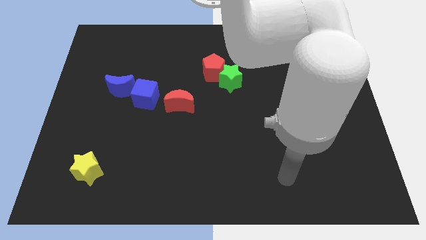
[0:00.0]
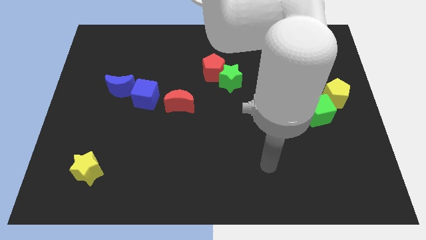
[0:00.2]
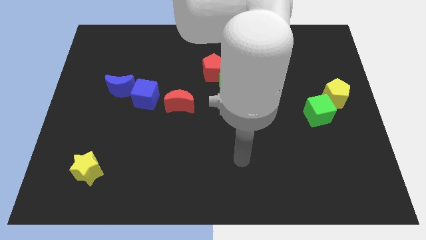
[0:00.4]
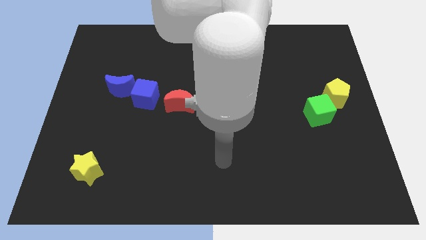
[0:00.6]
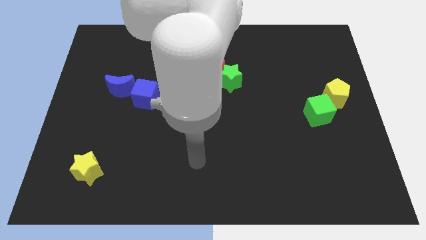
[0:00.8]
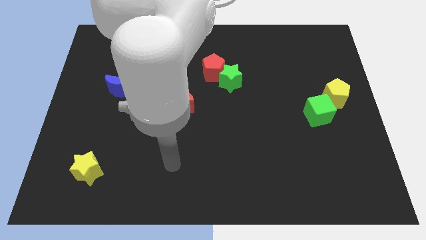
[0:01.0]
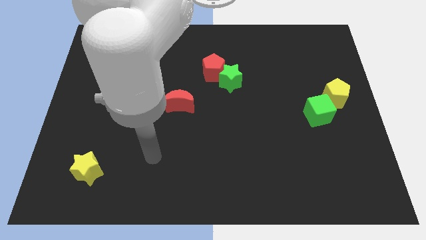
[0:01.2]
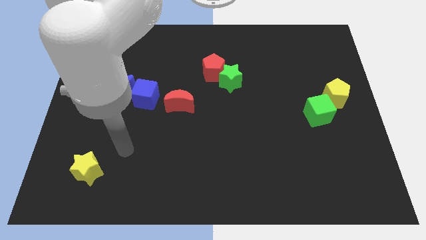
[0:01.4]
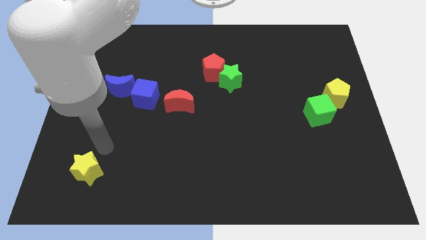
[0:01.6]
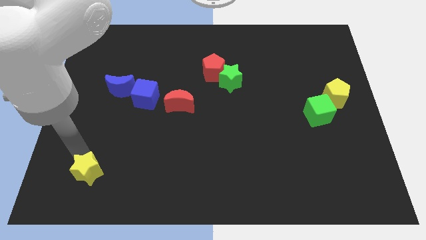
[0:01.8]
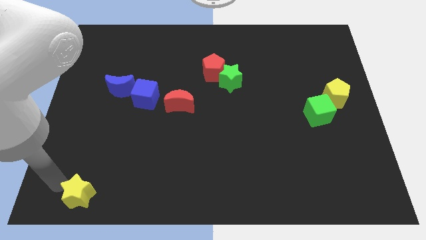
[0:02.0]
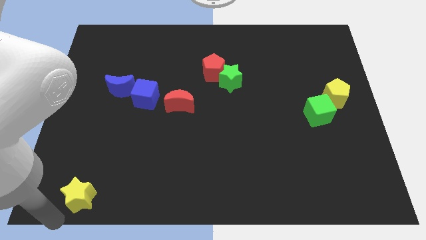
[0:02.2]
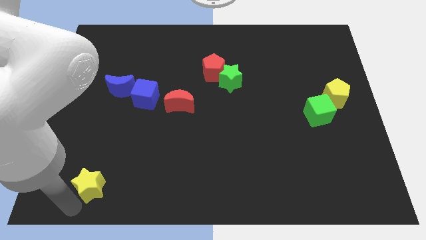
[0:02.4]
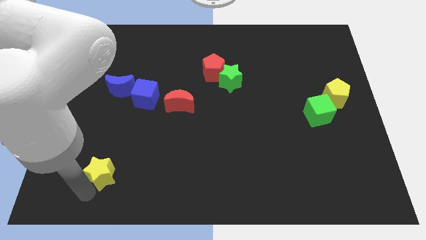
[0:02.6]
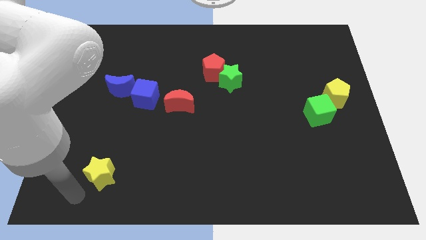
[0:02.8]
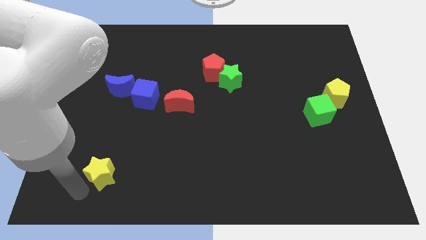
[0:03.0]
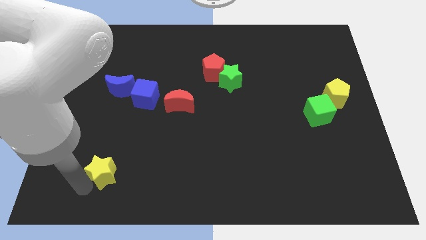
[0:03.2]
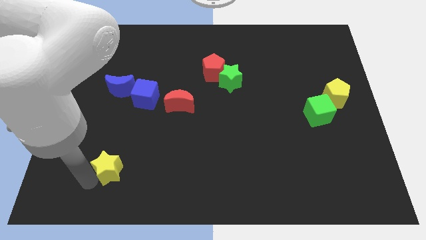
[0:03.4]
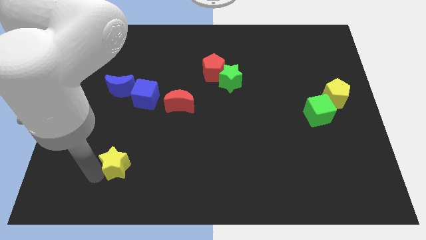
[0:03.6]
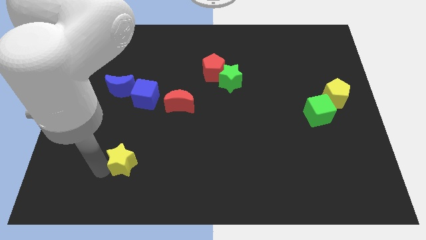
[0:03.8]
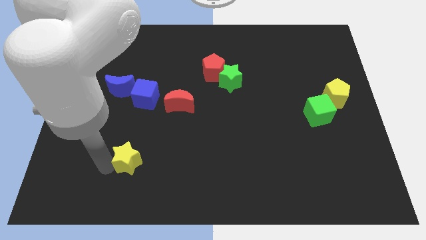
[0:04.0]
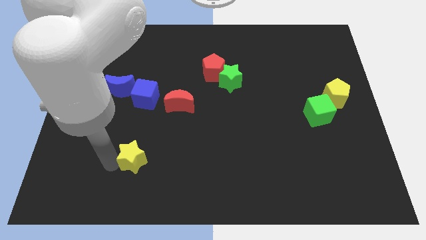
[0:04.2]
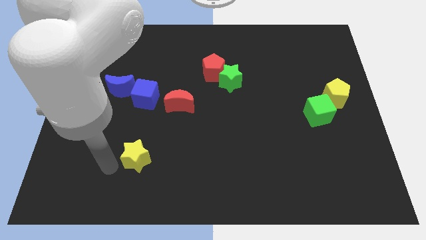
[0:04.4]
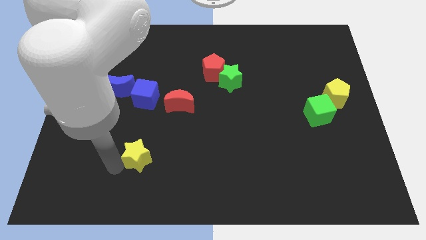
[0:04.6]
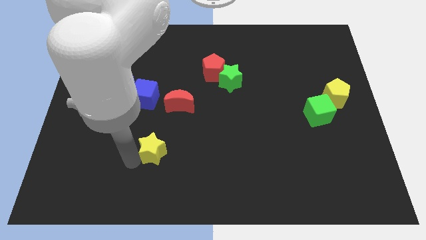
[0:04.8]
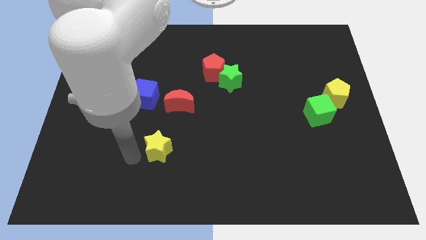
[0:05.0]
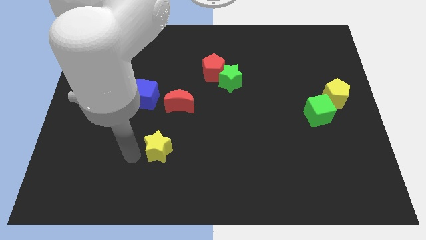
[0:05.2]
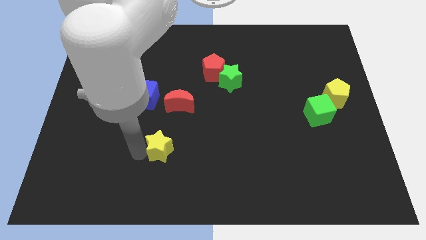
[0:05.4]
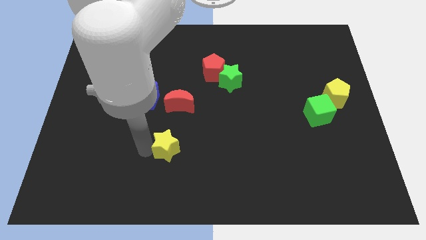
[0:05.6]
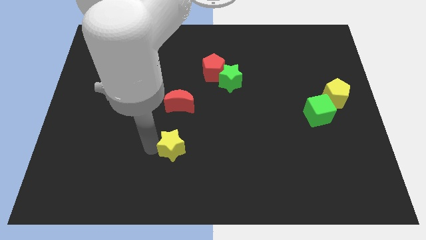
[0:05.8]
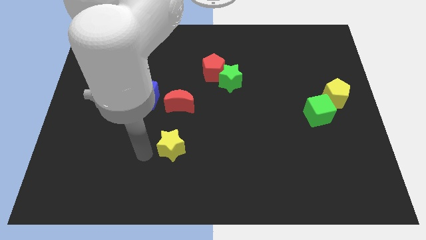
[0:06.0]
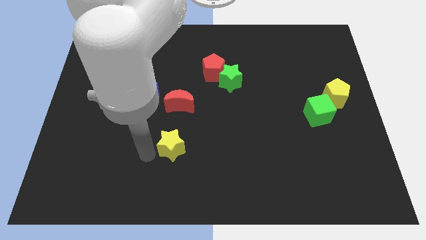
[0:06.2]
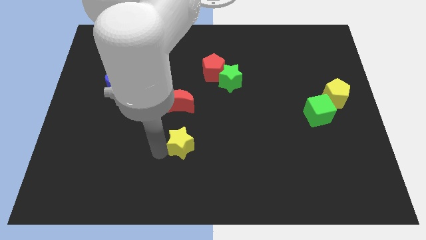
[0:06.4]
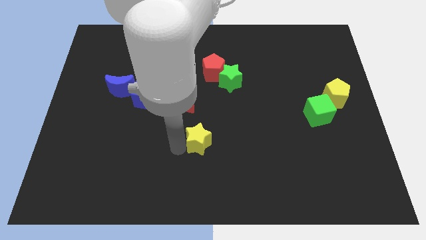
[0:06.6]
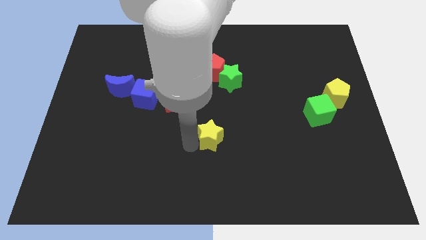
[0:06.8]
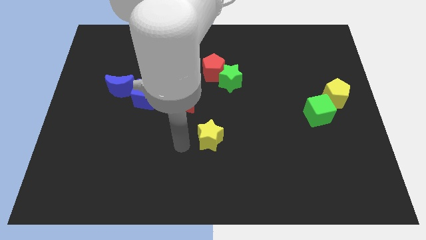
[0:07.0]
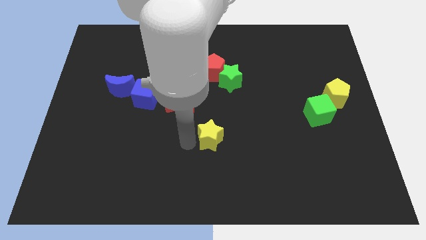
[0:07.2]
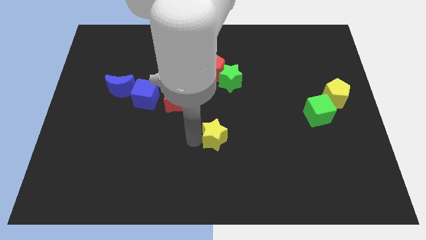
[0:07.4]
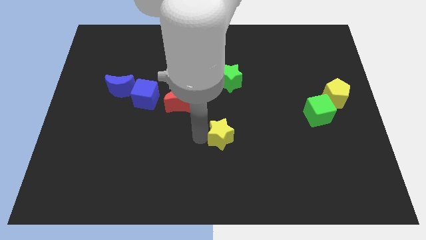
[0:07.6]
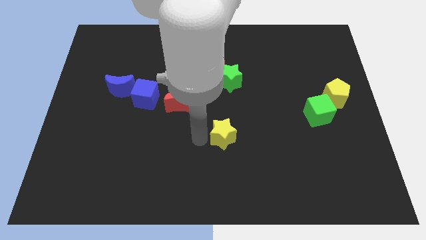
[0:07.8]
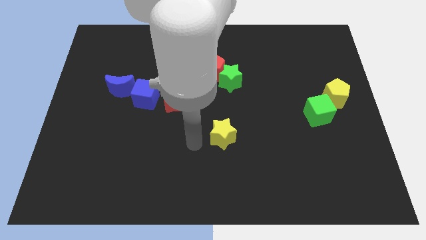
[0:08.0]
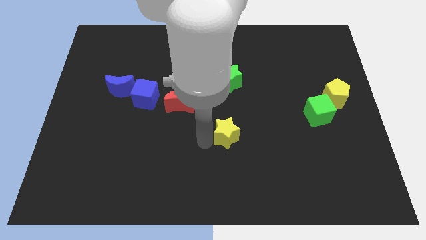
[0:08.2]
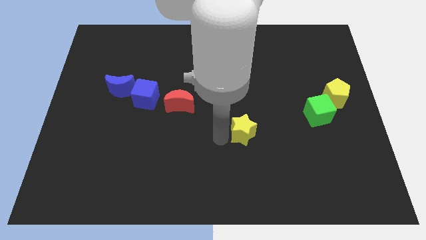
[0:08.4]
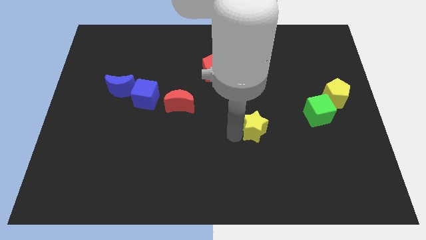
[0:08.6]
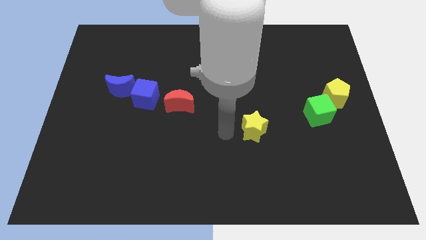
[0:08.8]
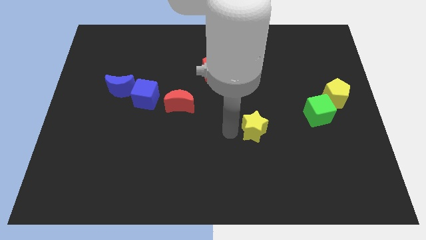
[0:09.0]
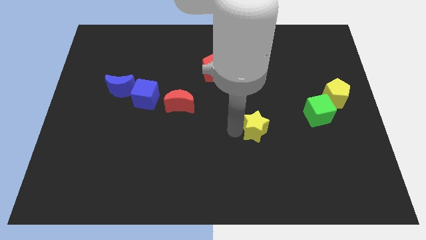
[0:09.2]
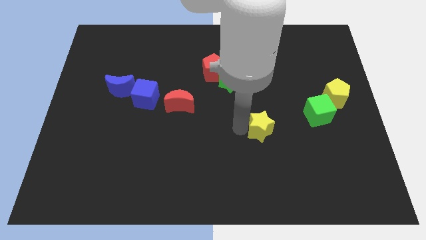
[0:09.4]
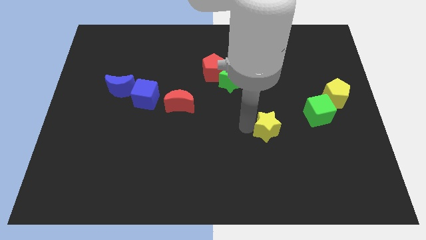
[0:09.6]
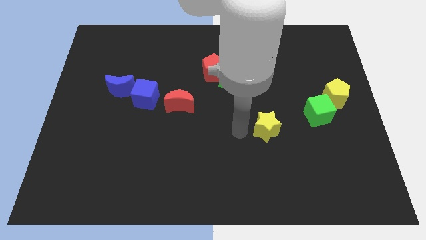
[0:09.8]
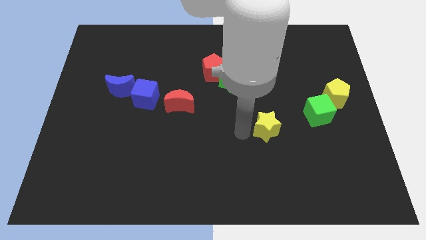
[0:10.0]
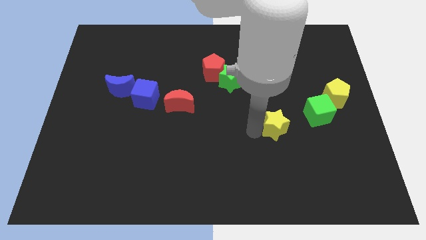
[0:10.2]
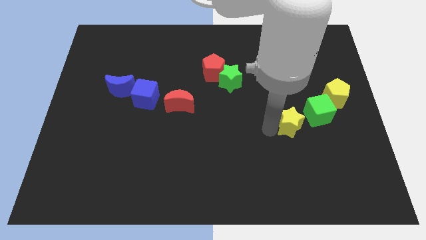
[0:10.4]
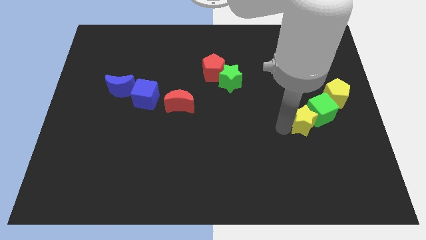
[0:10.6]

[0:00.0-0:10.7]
push the yellow star to the bottom left of the yellow pentagon

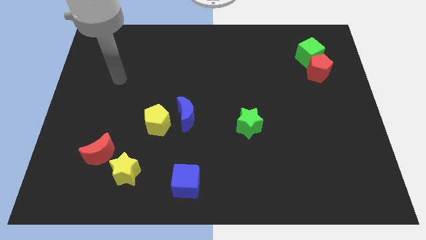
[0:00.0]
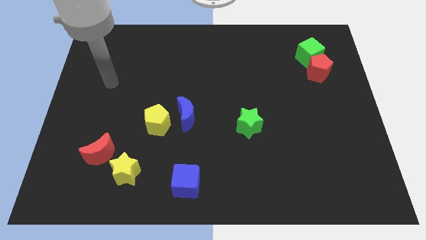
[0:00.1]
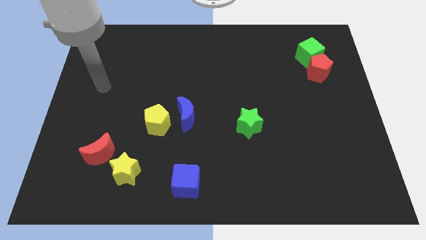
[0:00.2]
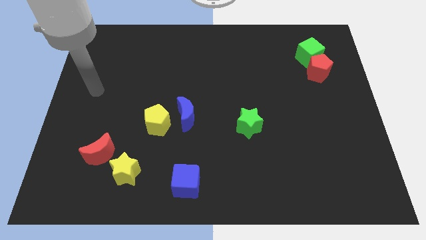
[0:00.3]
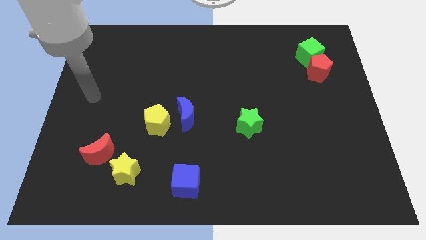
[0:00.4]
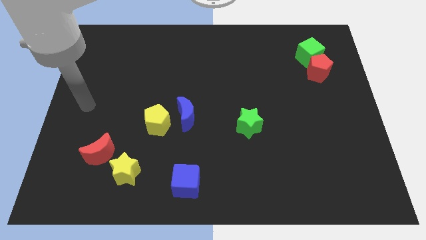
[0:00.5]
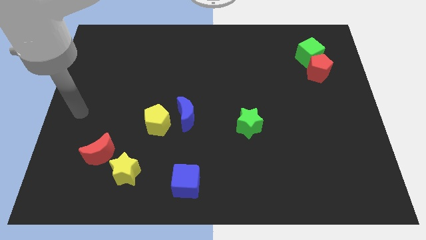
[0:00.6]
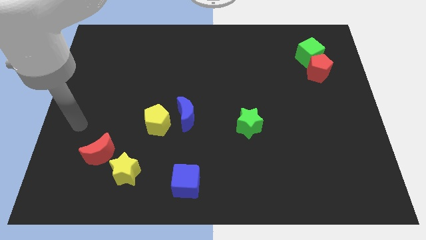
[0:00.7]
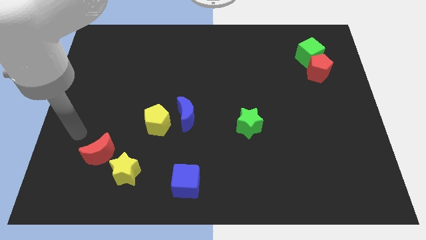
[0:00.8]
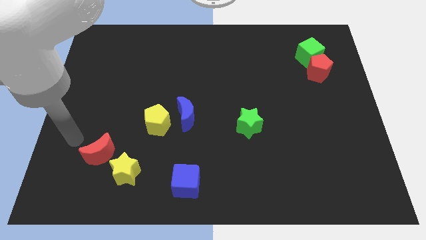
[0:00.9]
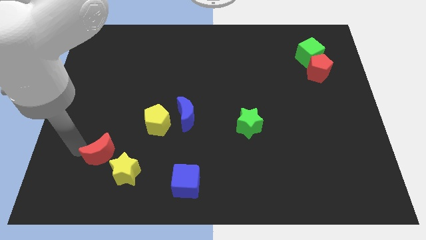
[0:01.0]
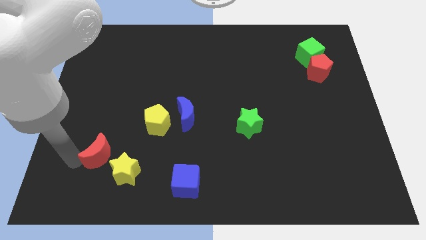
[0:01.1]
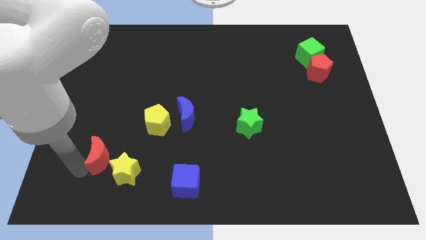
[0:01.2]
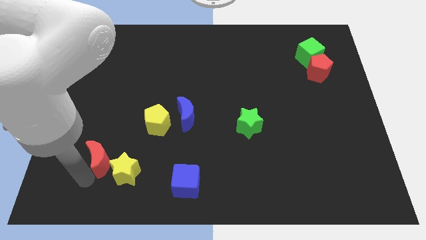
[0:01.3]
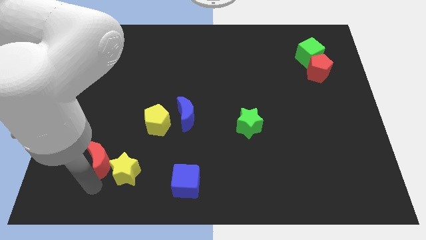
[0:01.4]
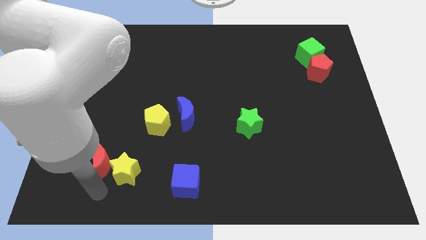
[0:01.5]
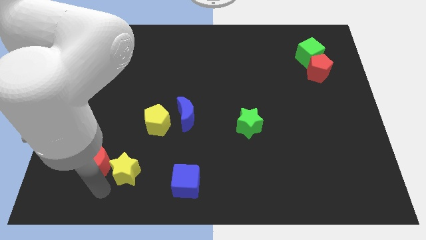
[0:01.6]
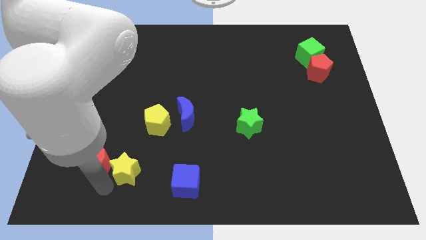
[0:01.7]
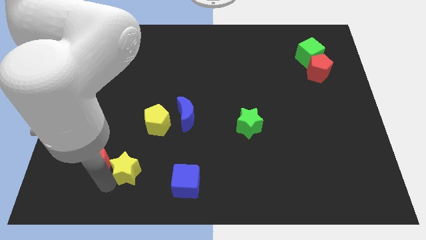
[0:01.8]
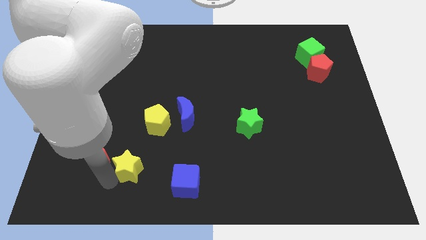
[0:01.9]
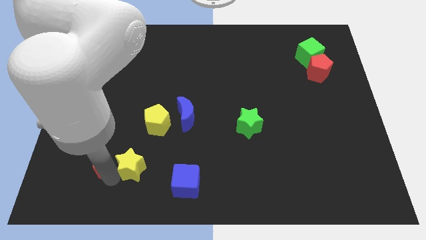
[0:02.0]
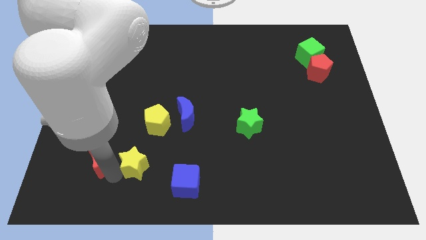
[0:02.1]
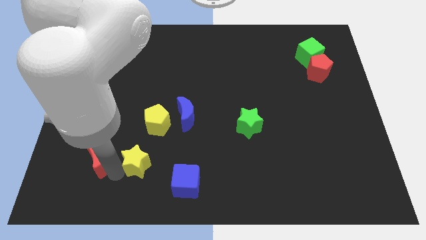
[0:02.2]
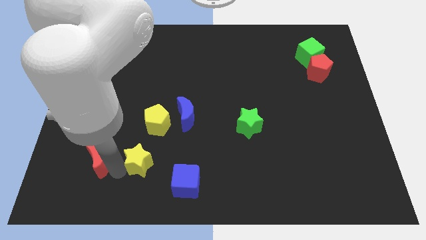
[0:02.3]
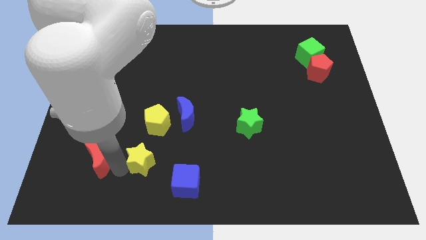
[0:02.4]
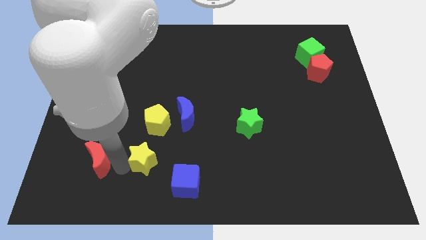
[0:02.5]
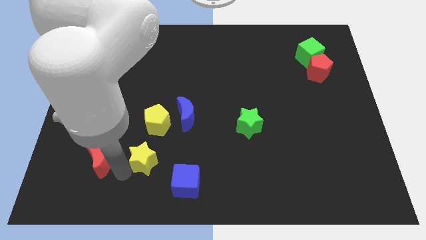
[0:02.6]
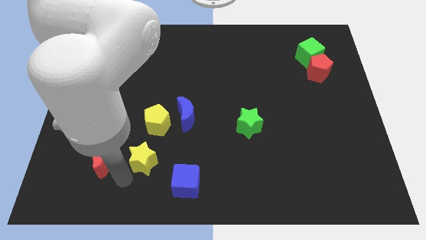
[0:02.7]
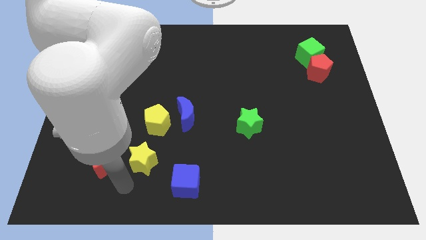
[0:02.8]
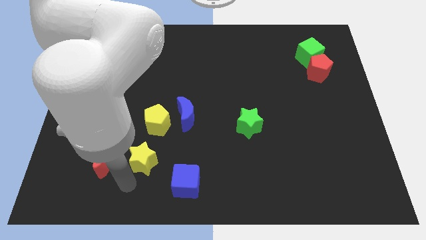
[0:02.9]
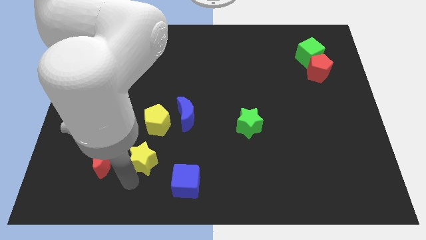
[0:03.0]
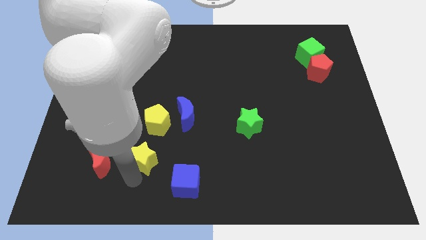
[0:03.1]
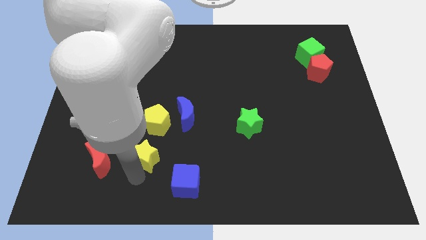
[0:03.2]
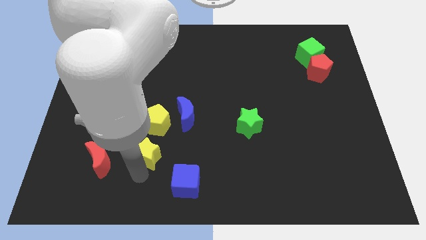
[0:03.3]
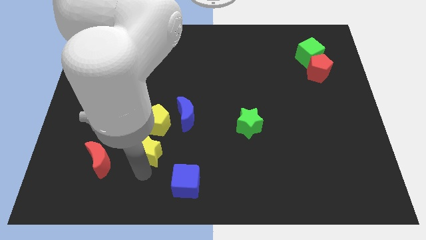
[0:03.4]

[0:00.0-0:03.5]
put the yellow star to the bottom left of the blue moon
